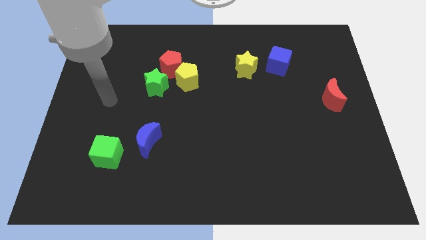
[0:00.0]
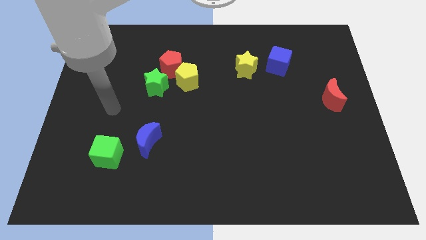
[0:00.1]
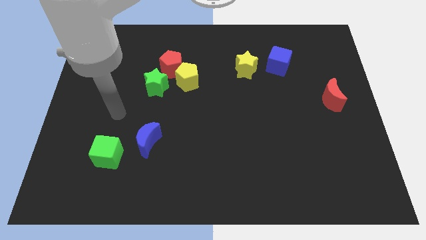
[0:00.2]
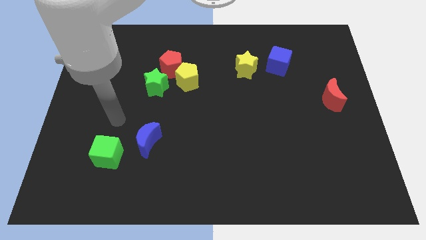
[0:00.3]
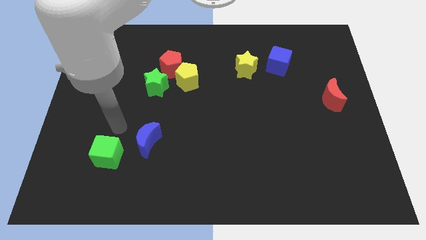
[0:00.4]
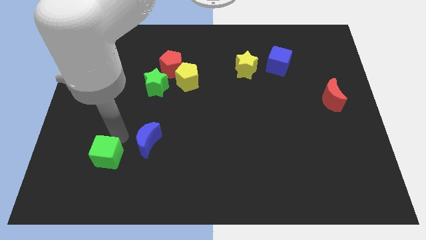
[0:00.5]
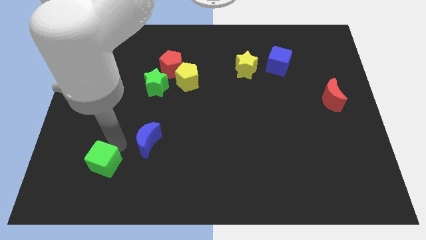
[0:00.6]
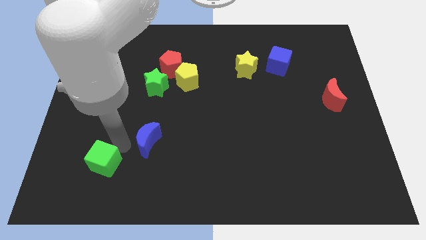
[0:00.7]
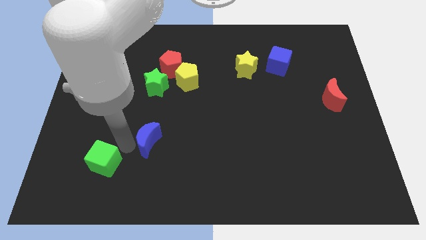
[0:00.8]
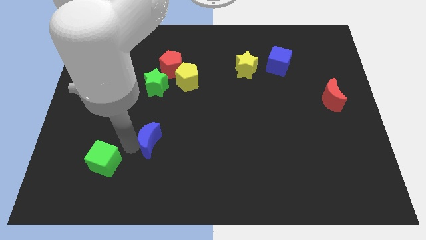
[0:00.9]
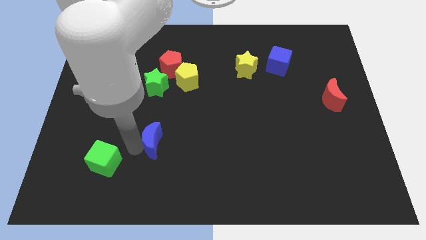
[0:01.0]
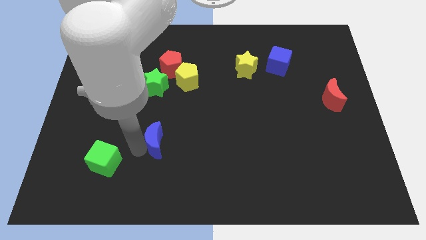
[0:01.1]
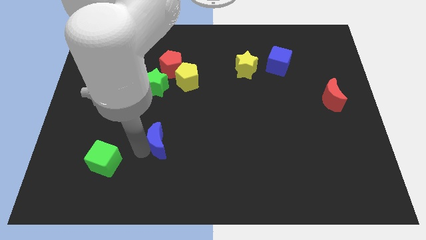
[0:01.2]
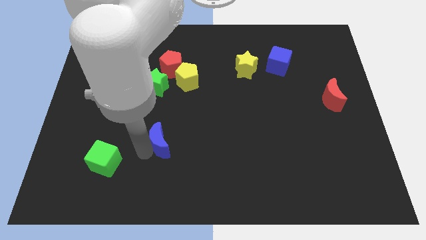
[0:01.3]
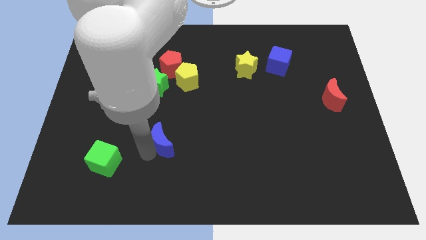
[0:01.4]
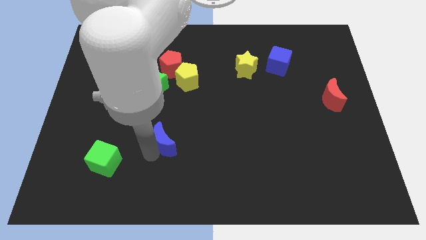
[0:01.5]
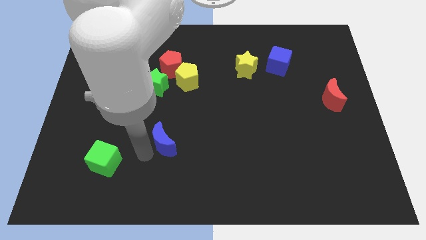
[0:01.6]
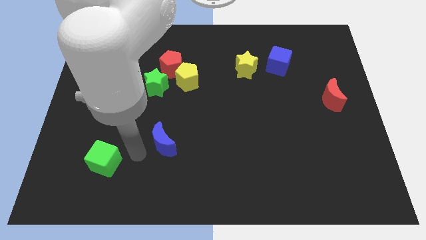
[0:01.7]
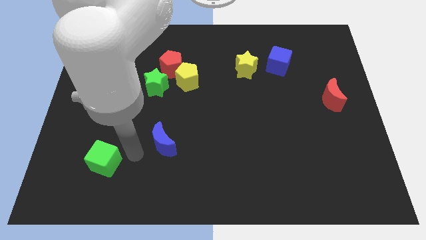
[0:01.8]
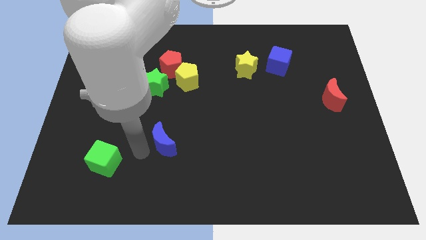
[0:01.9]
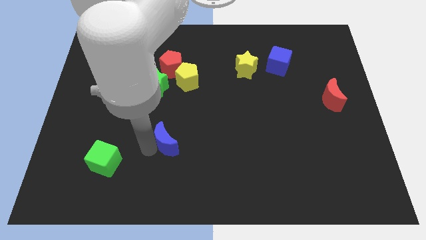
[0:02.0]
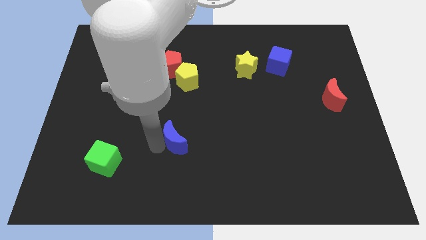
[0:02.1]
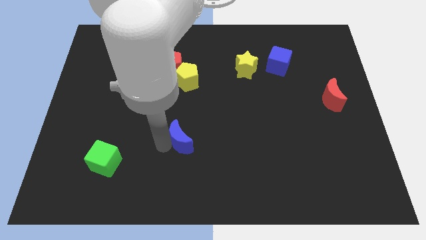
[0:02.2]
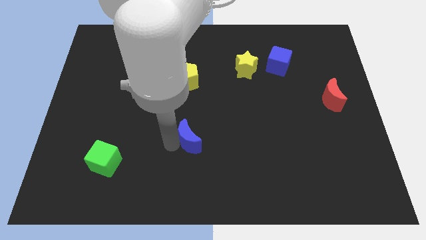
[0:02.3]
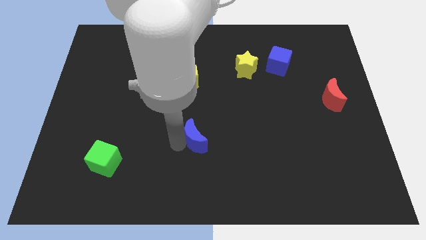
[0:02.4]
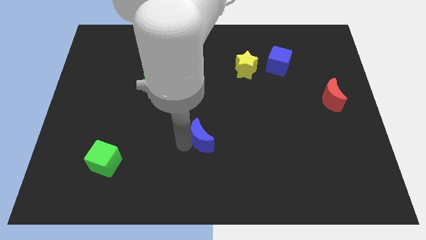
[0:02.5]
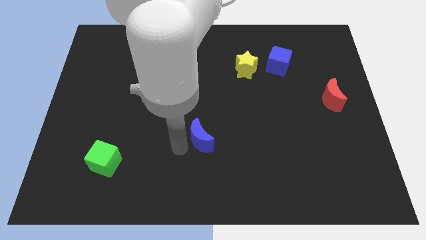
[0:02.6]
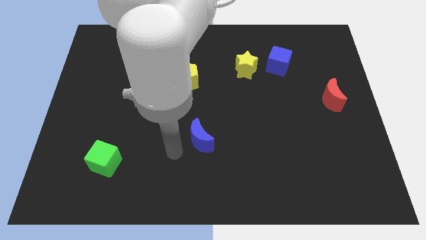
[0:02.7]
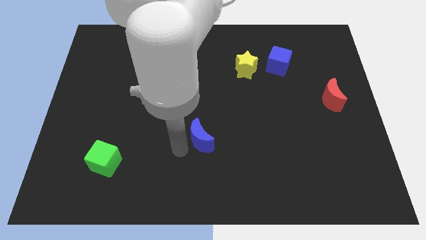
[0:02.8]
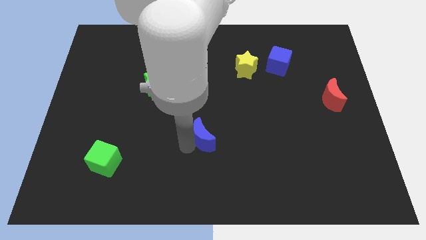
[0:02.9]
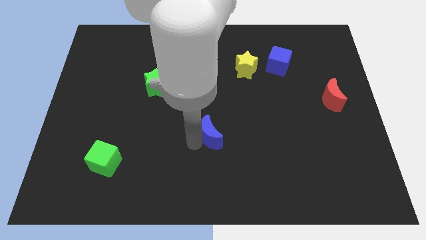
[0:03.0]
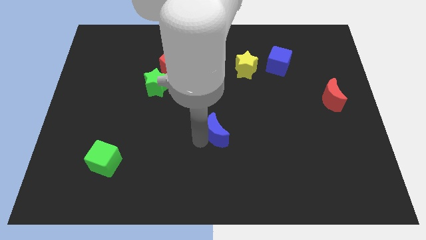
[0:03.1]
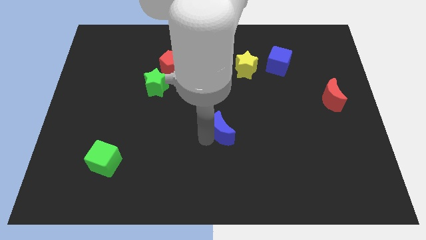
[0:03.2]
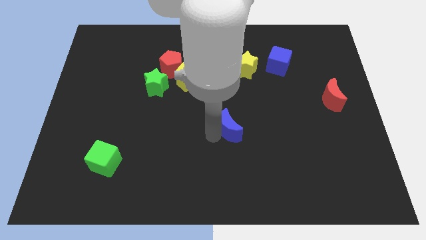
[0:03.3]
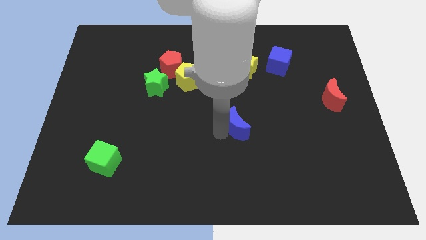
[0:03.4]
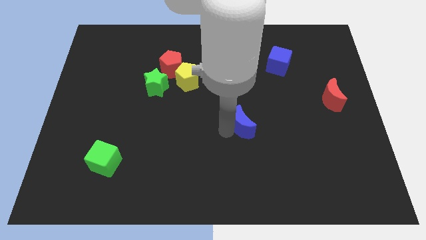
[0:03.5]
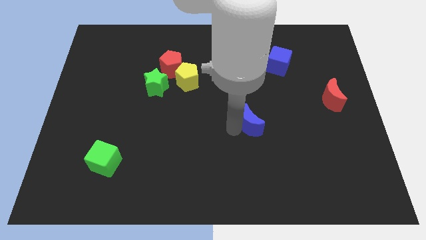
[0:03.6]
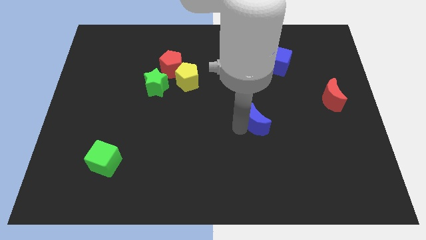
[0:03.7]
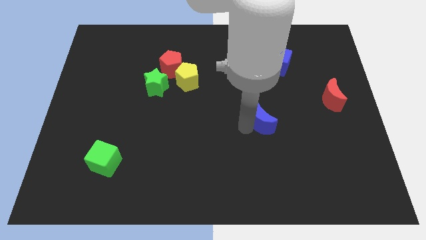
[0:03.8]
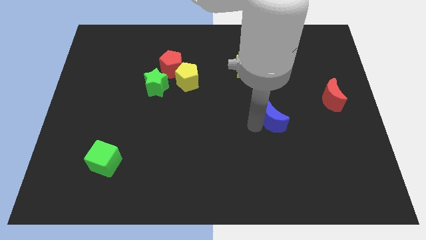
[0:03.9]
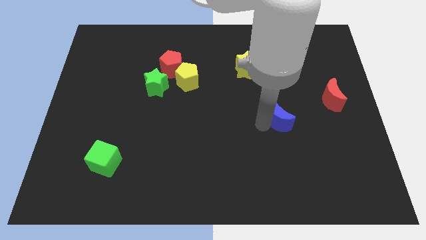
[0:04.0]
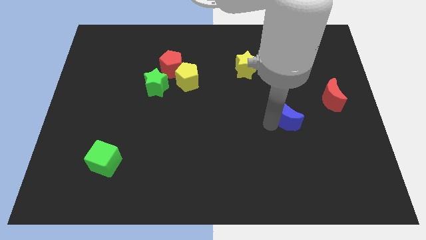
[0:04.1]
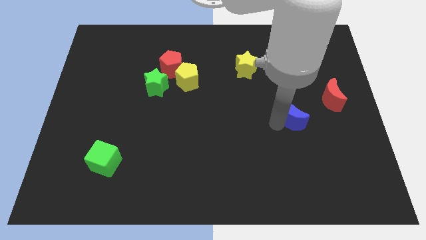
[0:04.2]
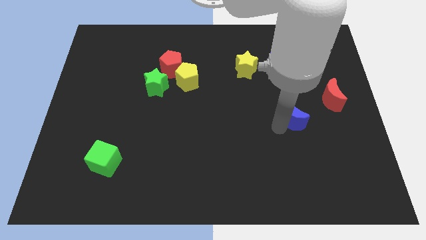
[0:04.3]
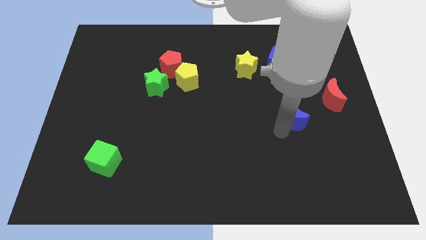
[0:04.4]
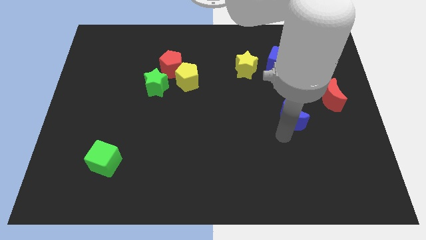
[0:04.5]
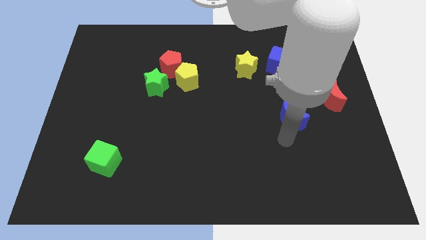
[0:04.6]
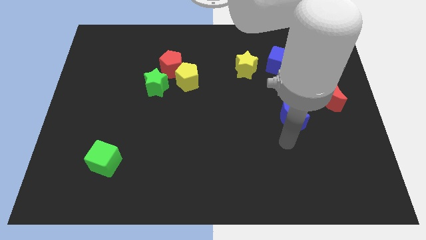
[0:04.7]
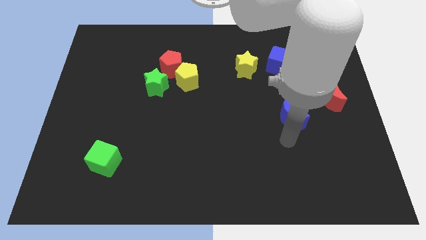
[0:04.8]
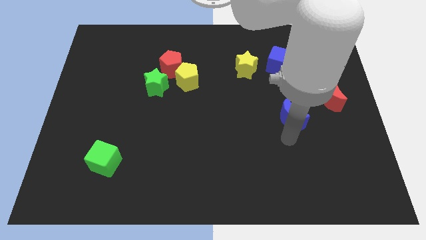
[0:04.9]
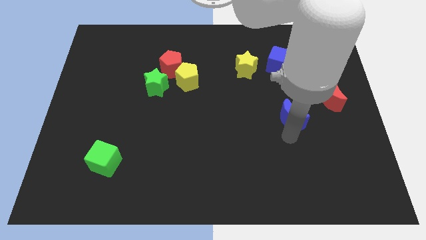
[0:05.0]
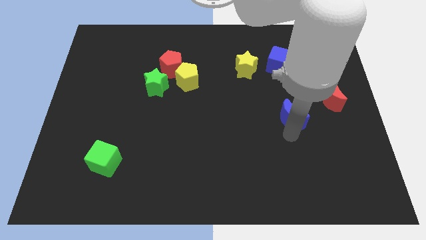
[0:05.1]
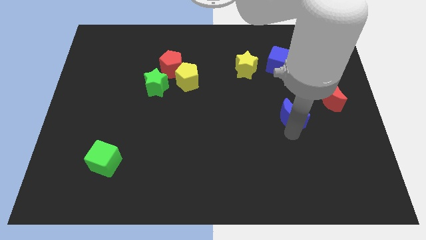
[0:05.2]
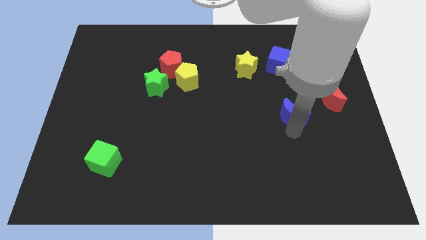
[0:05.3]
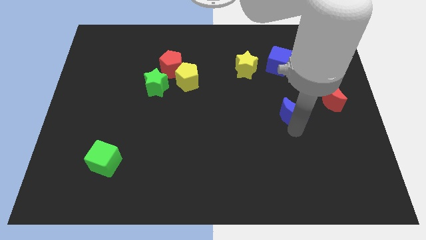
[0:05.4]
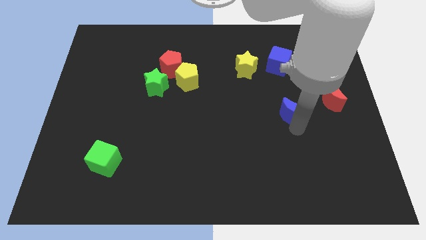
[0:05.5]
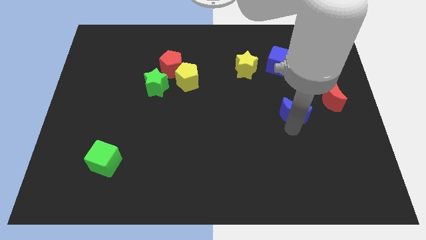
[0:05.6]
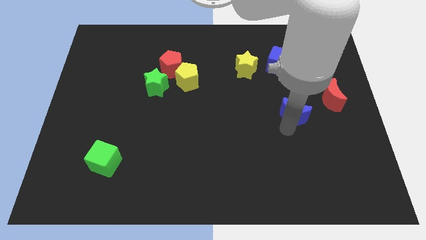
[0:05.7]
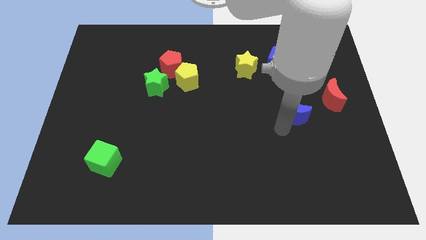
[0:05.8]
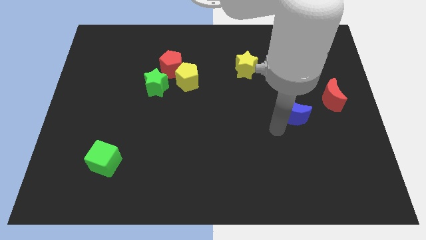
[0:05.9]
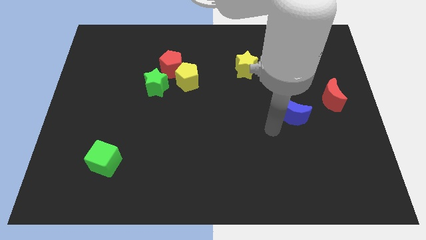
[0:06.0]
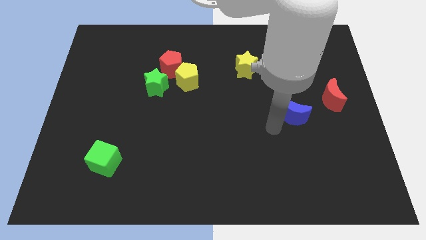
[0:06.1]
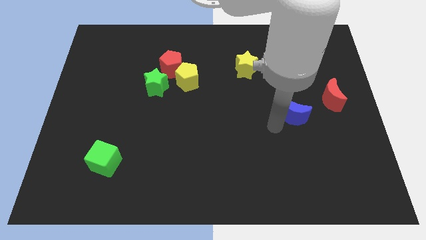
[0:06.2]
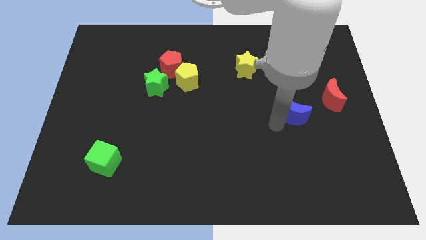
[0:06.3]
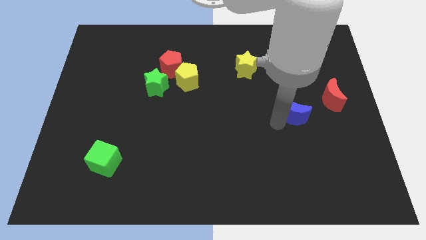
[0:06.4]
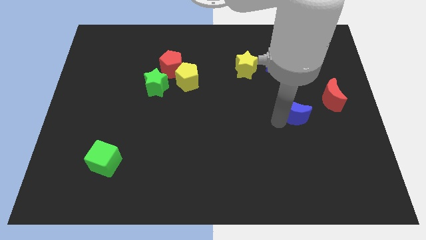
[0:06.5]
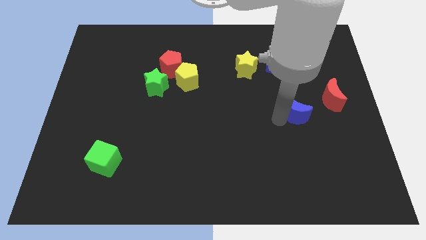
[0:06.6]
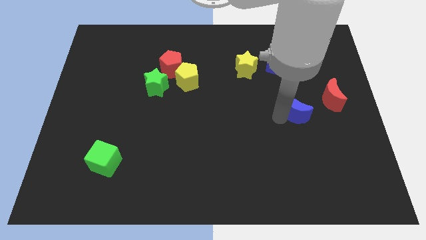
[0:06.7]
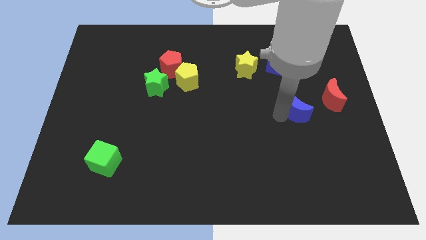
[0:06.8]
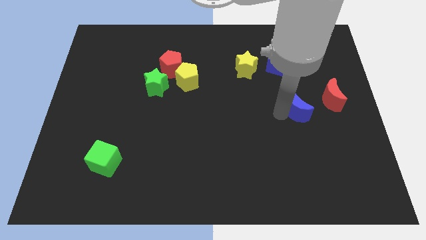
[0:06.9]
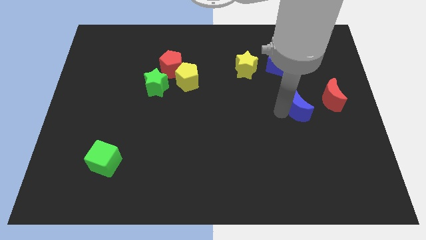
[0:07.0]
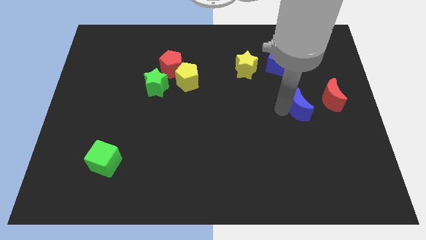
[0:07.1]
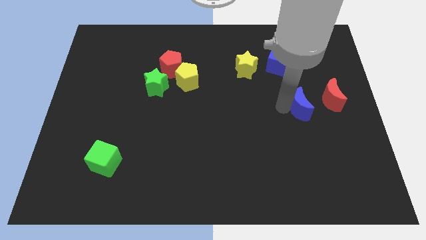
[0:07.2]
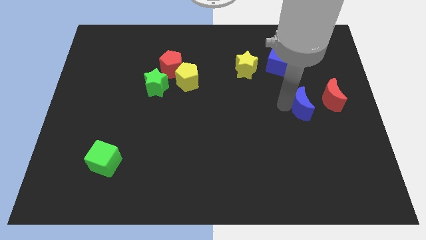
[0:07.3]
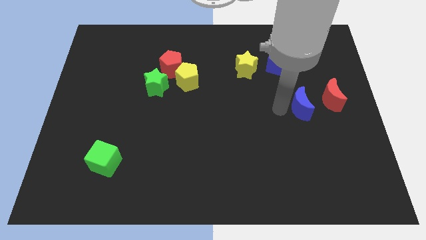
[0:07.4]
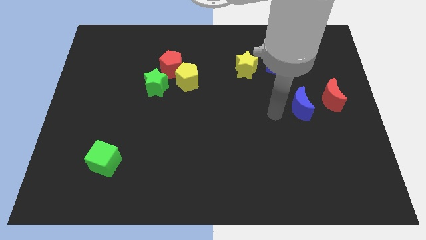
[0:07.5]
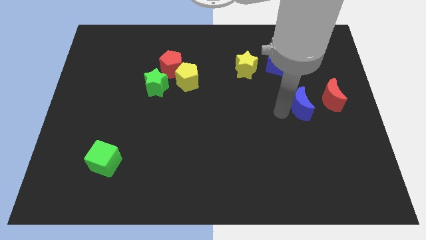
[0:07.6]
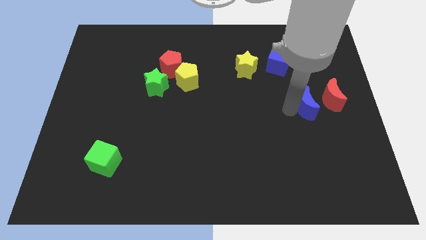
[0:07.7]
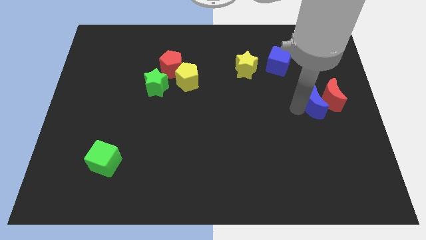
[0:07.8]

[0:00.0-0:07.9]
slide the blue moon towards the red moon
